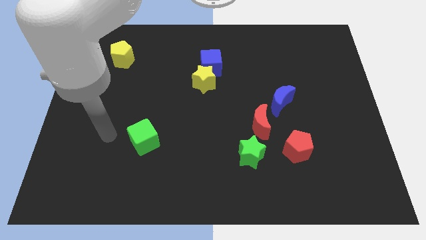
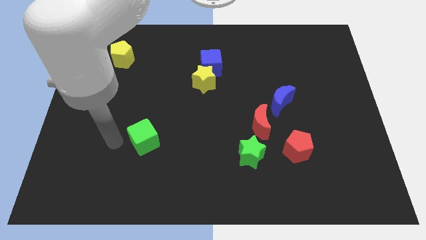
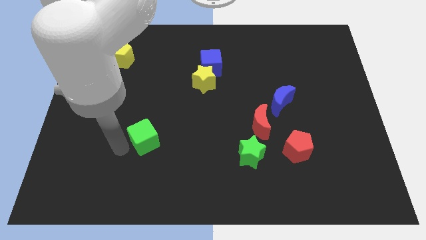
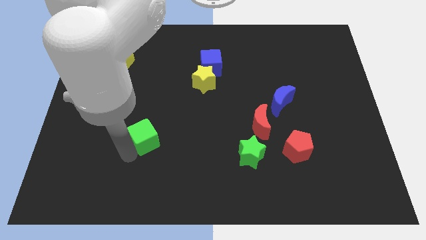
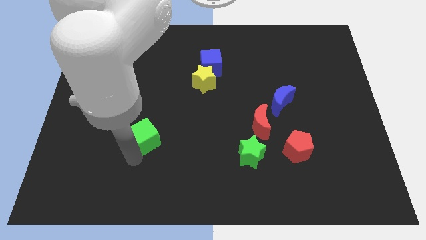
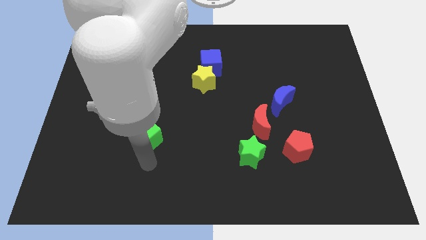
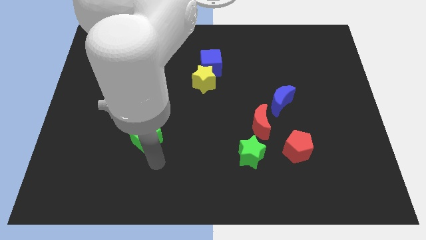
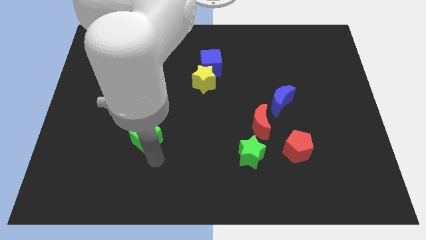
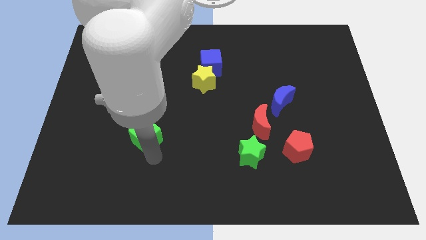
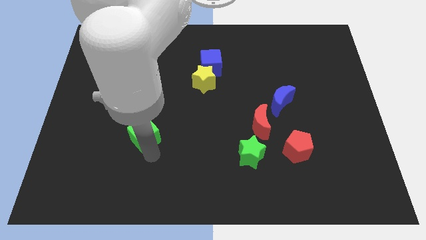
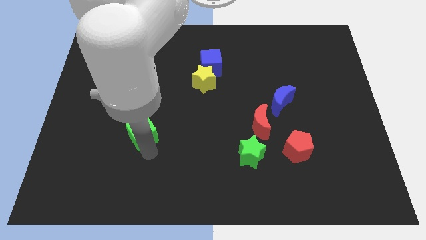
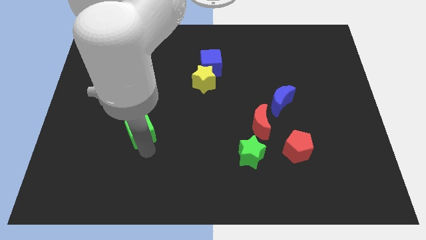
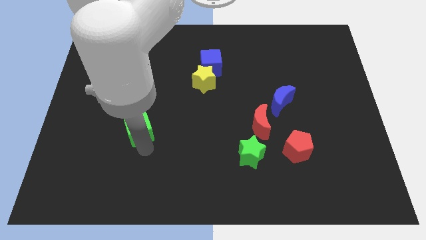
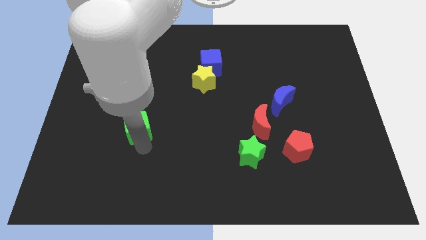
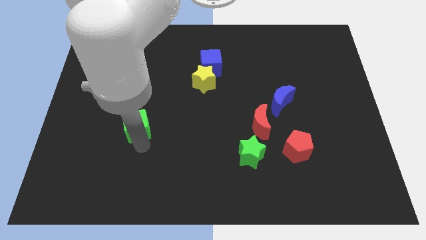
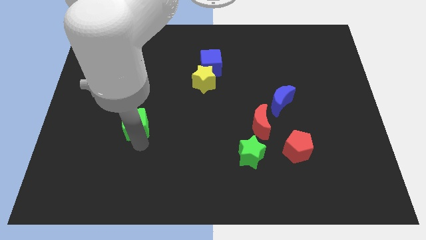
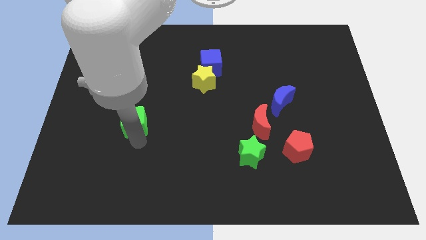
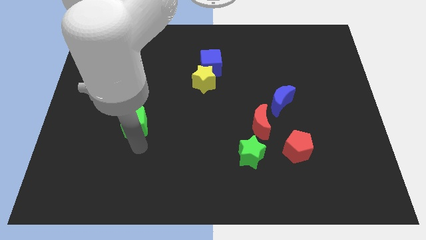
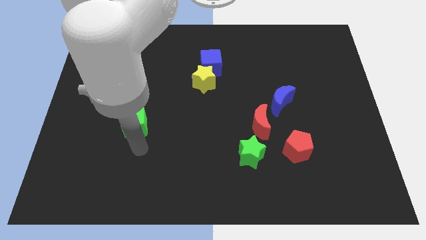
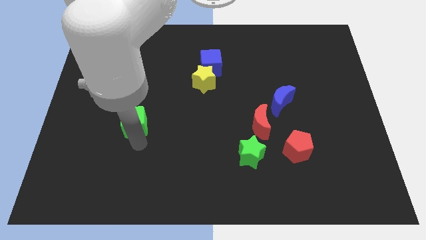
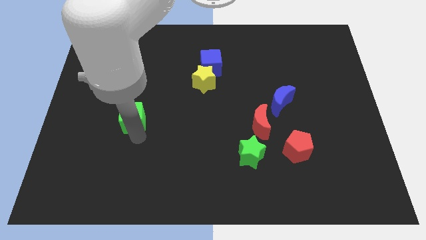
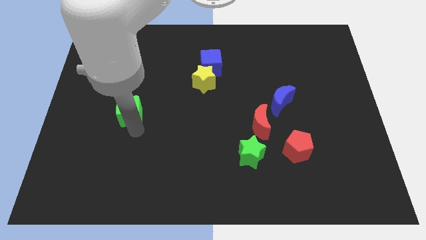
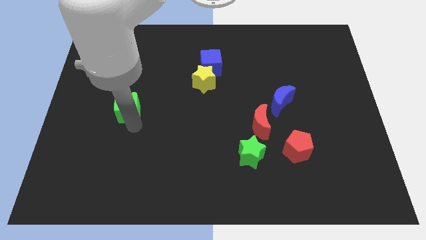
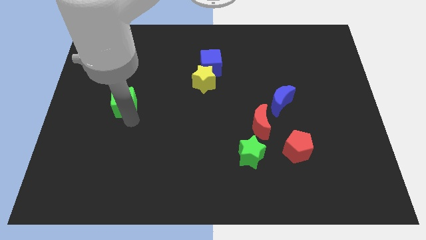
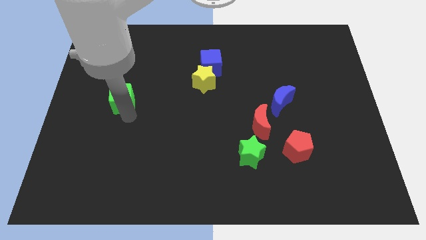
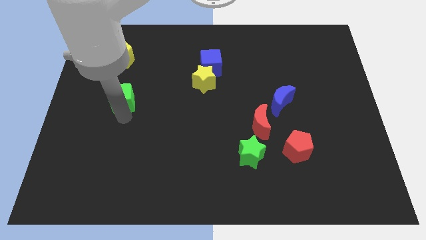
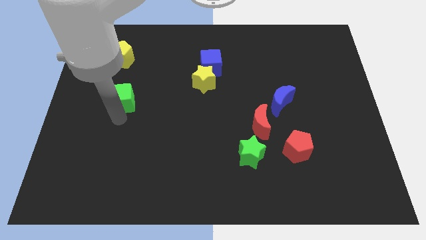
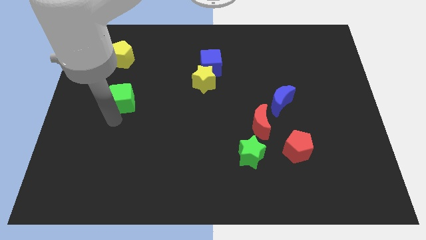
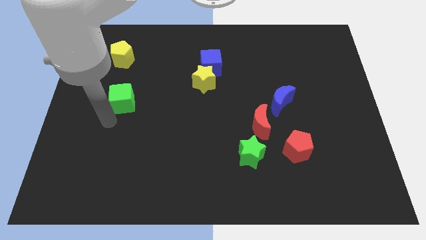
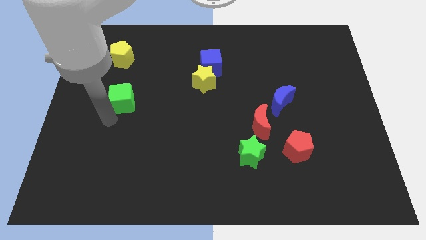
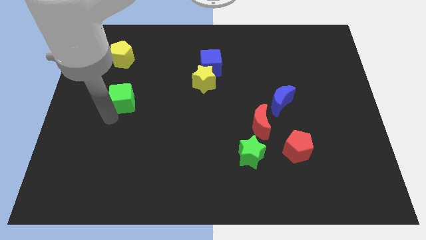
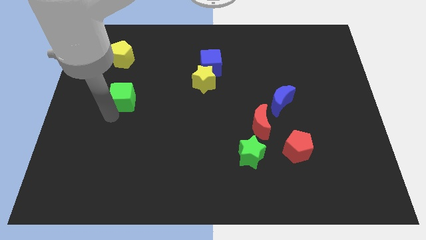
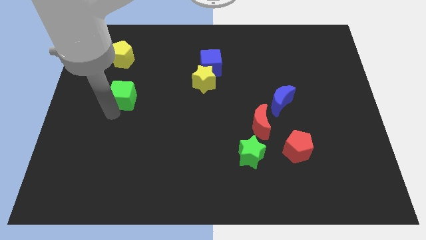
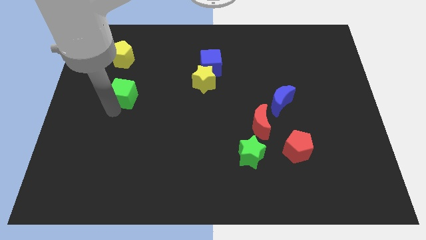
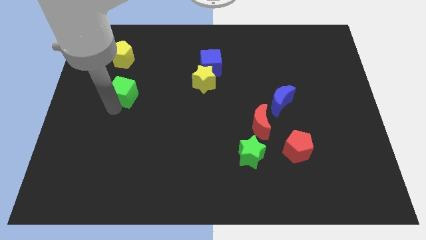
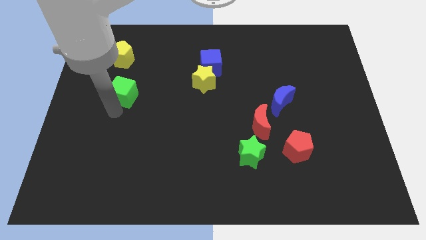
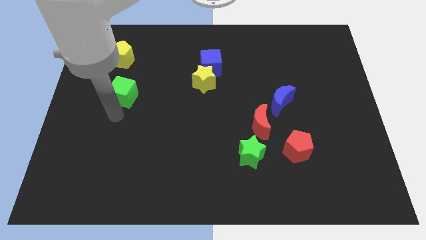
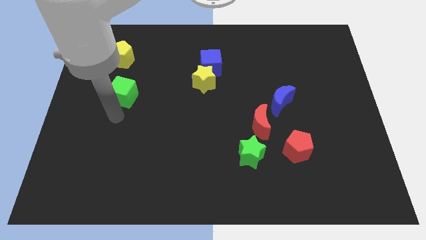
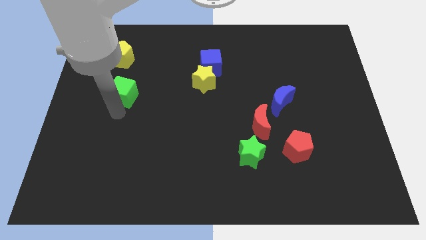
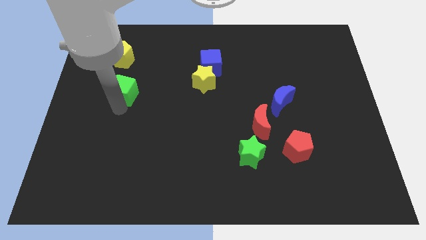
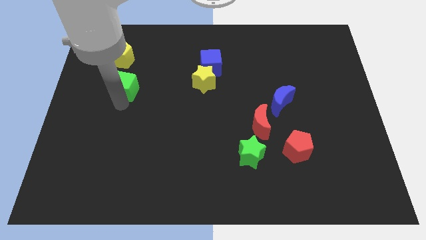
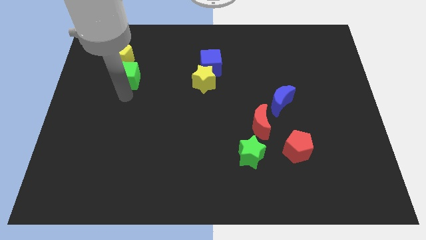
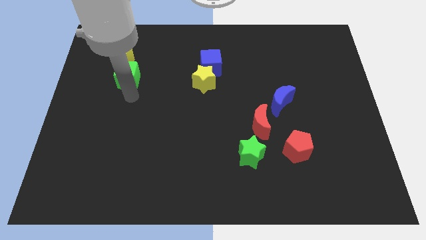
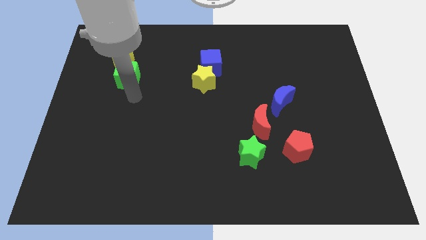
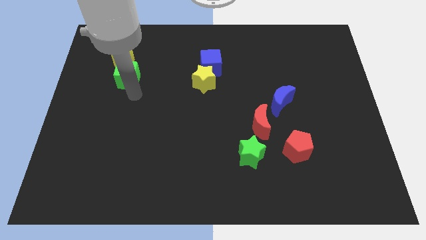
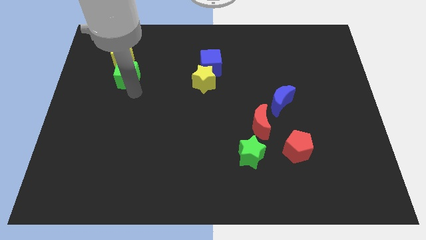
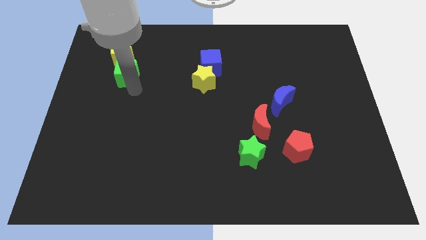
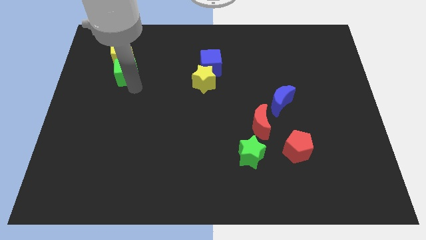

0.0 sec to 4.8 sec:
put the green cube next to the yellow pentagon

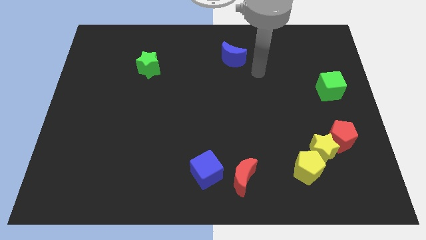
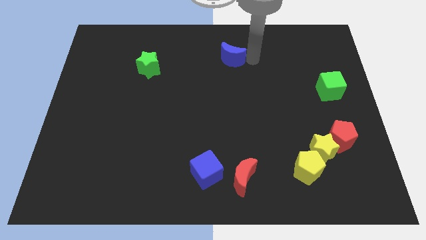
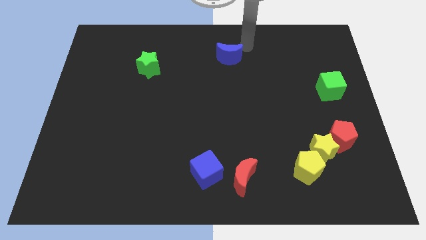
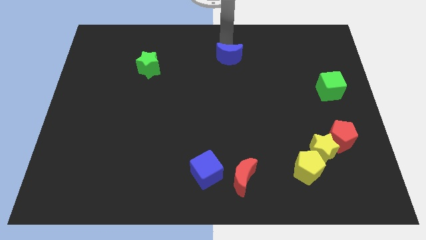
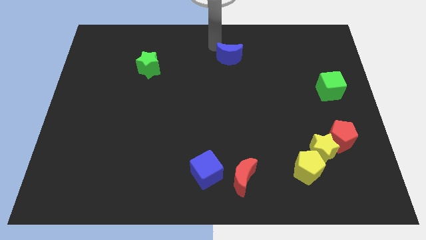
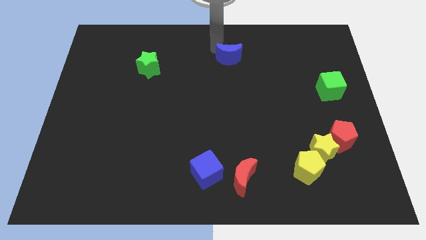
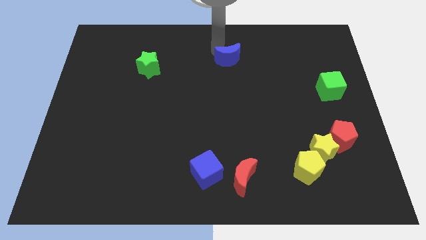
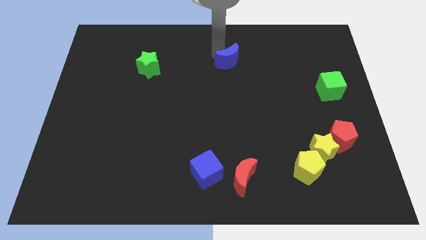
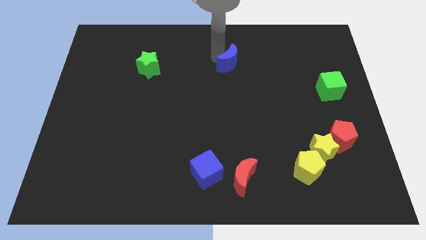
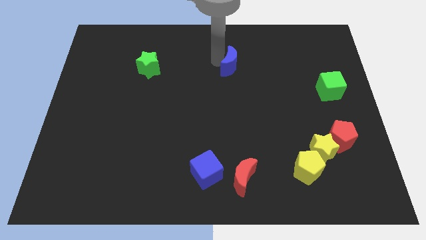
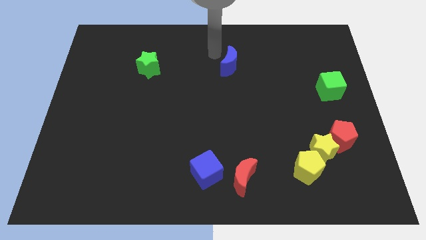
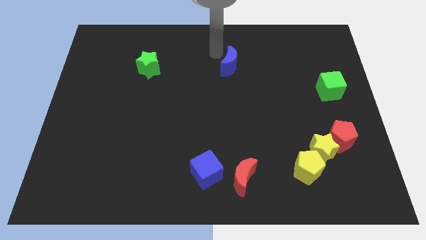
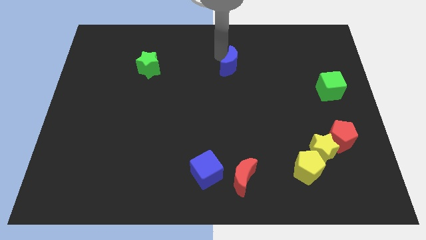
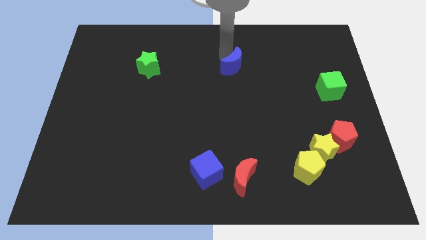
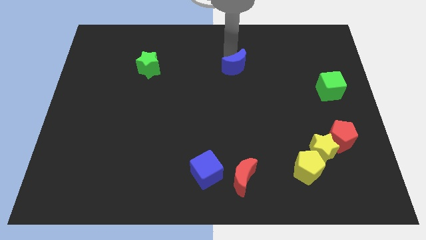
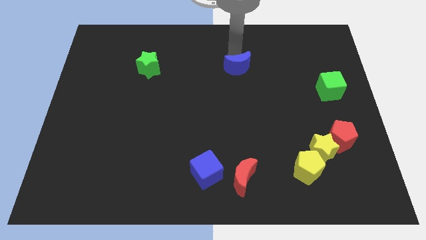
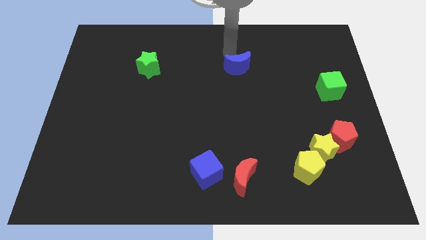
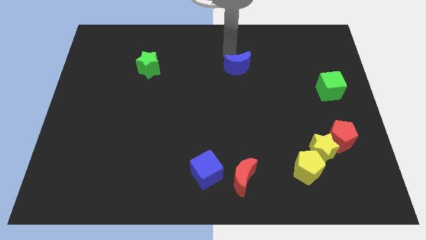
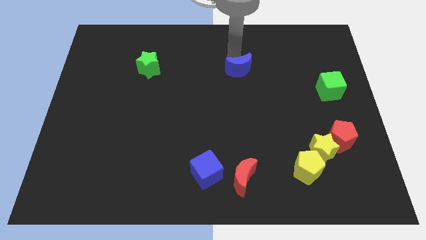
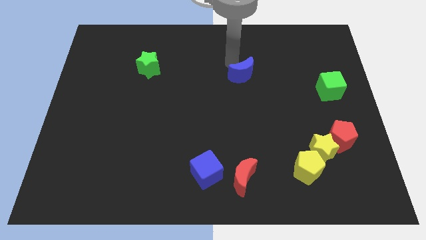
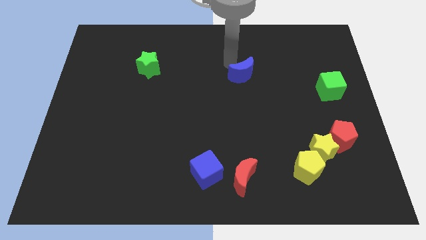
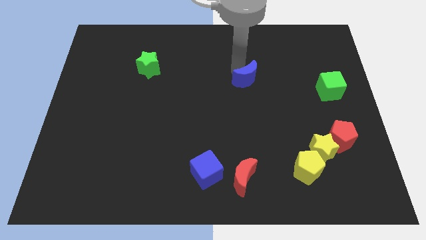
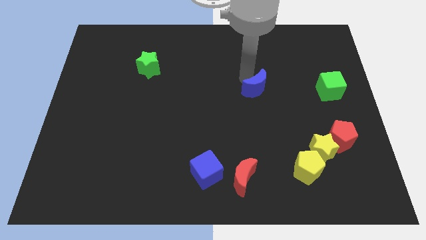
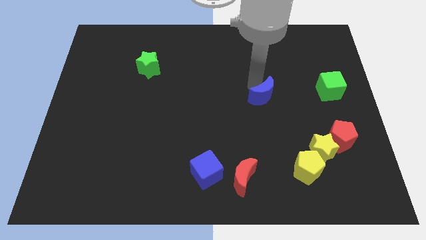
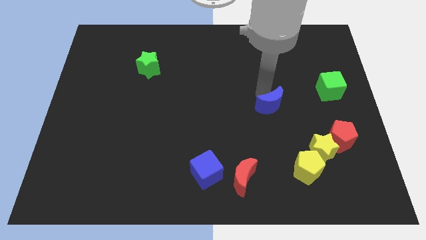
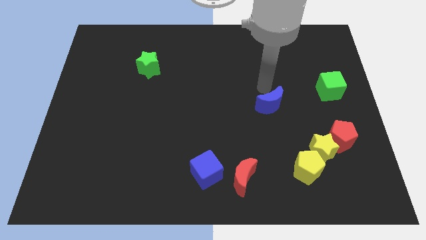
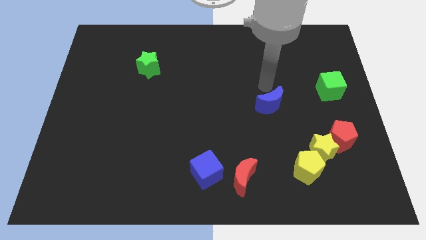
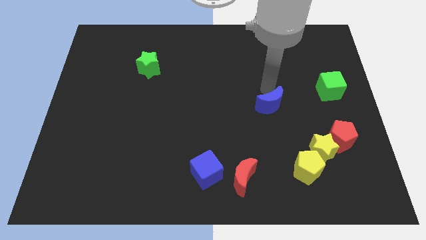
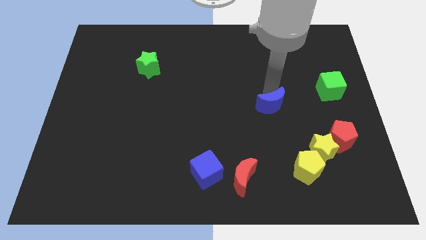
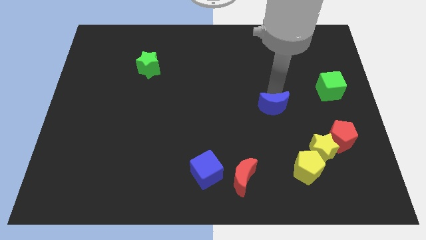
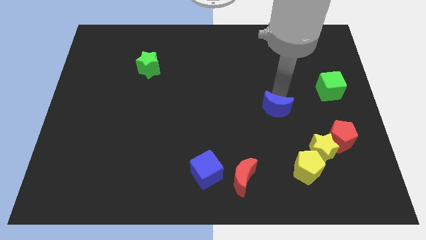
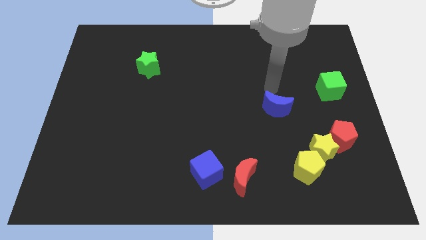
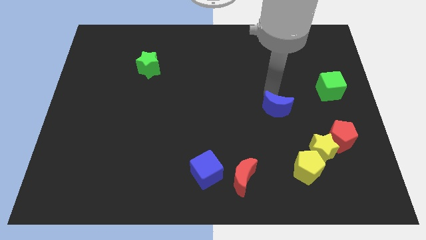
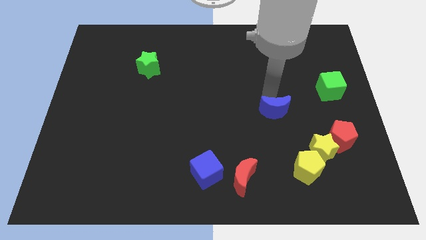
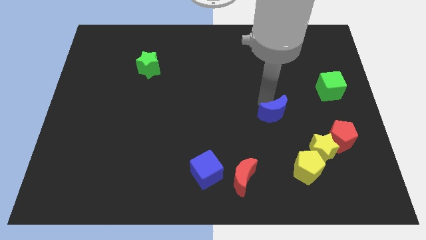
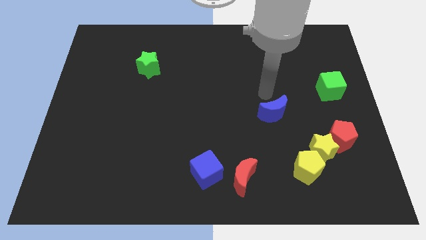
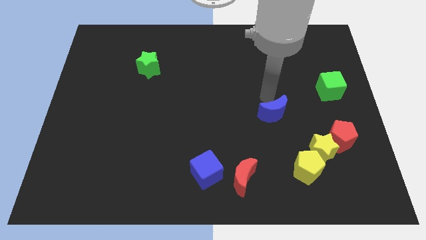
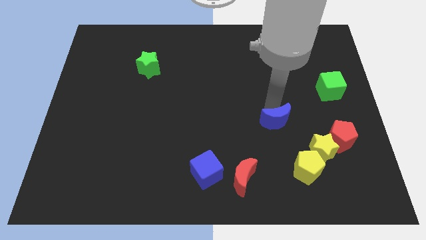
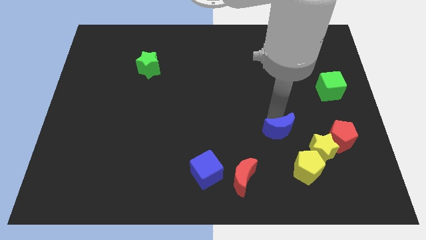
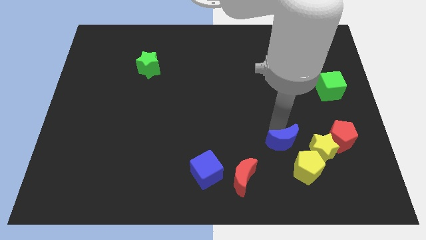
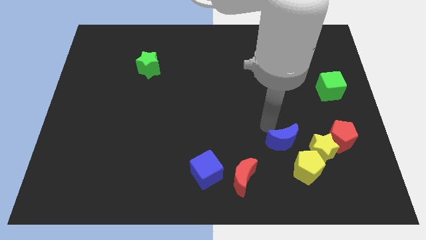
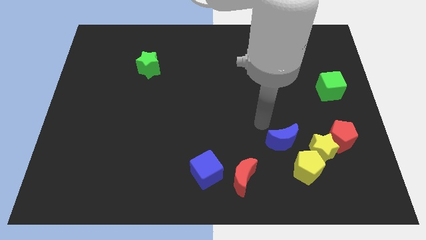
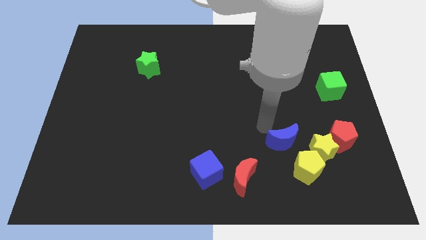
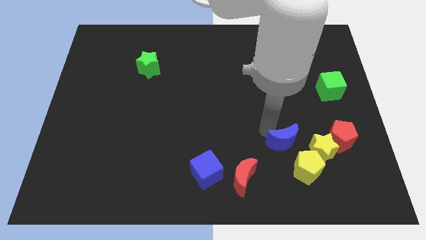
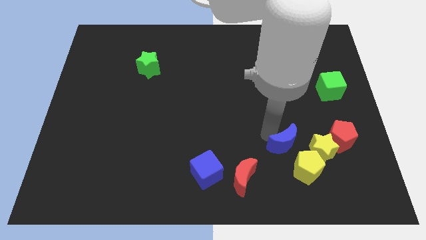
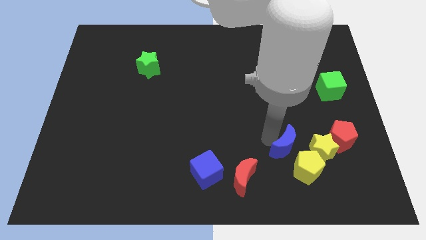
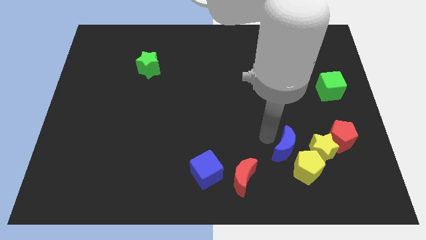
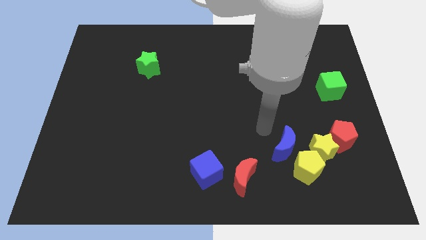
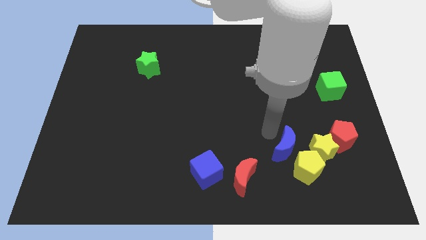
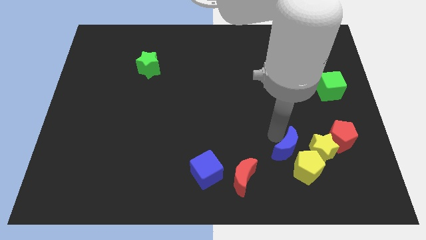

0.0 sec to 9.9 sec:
push the blue moon close to the yellow pentagon
